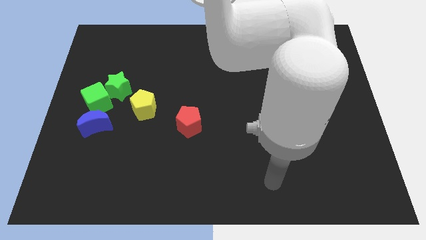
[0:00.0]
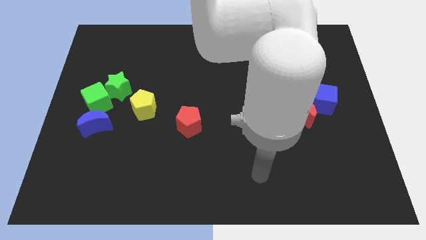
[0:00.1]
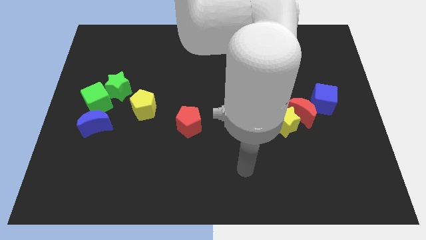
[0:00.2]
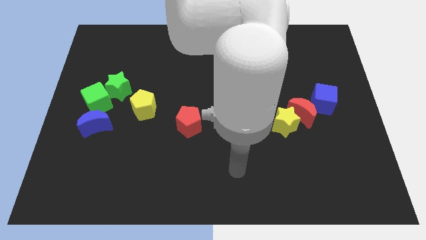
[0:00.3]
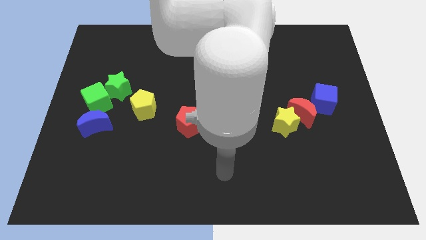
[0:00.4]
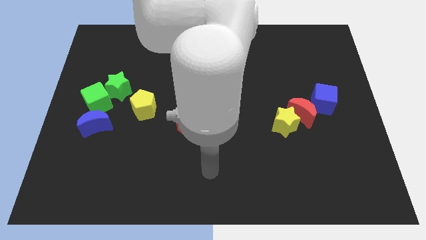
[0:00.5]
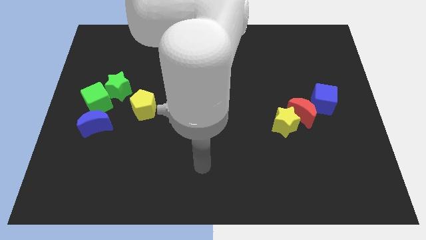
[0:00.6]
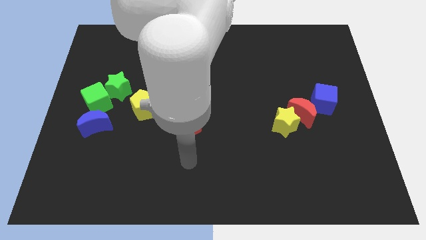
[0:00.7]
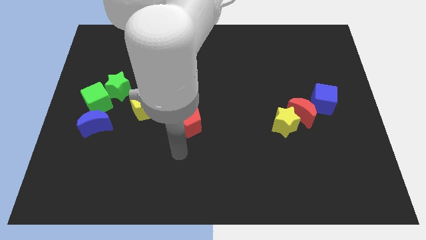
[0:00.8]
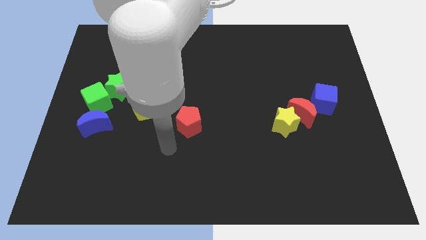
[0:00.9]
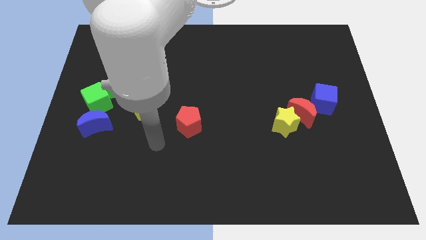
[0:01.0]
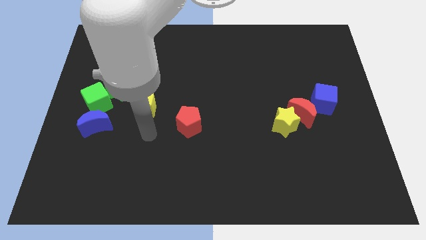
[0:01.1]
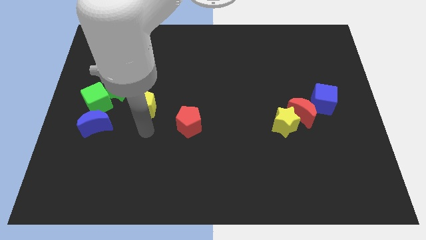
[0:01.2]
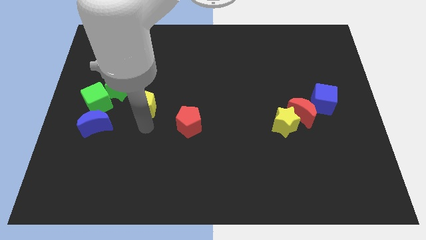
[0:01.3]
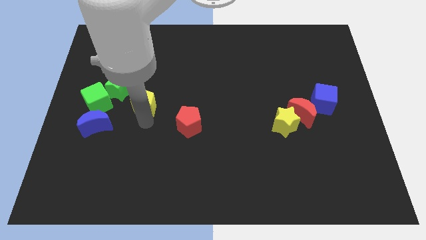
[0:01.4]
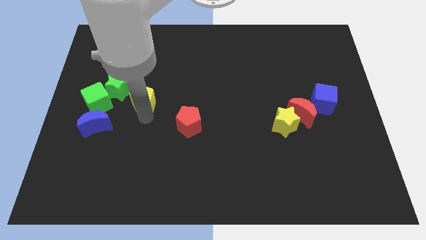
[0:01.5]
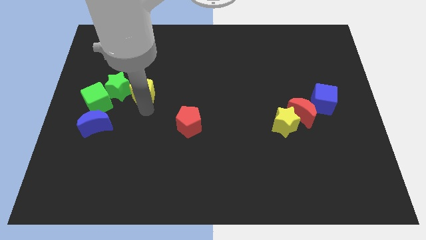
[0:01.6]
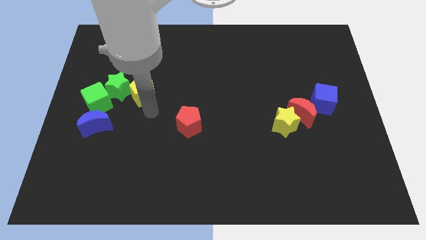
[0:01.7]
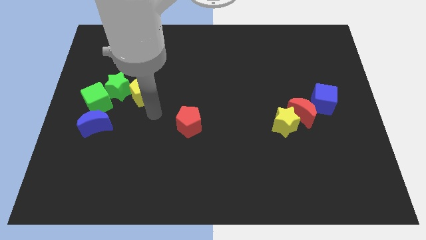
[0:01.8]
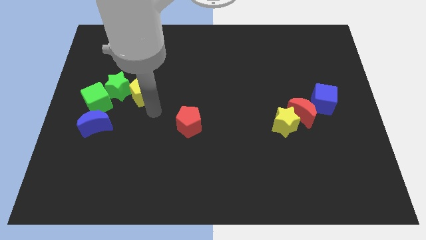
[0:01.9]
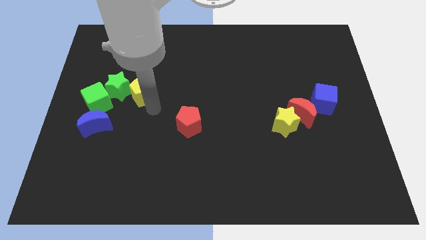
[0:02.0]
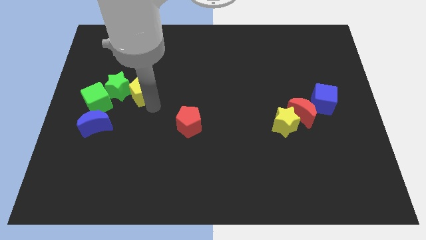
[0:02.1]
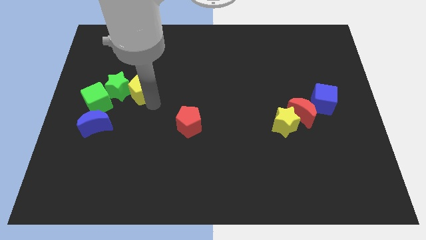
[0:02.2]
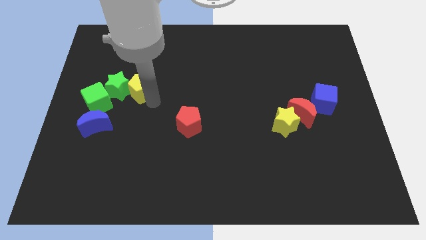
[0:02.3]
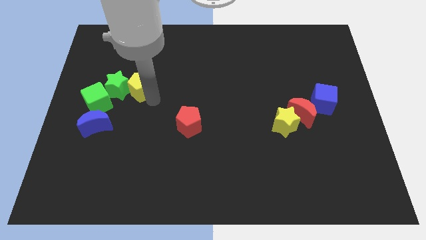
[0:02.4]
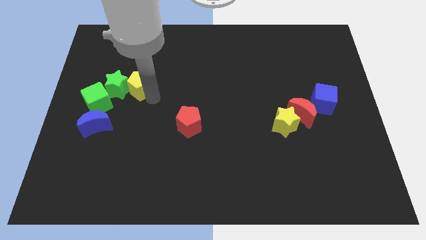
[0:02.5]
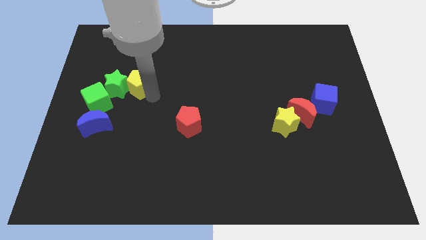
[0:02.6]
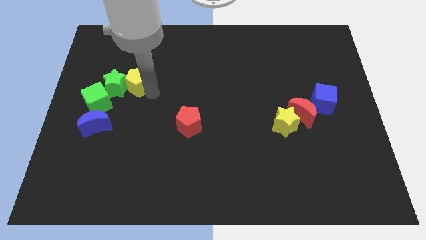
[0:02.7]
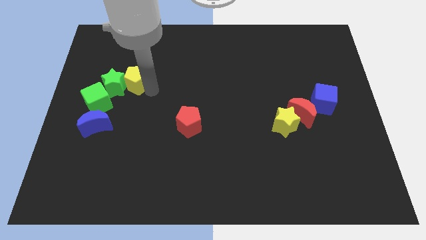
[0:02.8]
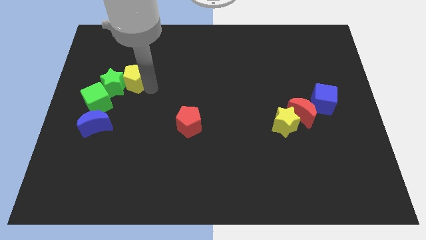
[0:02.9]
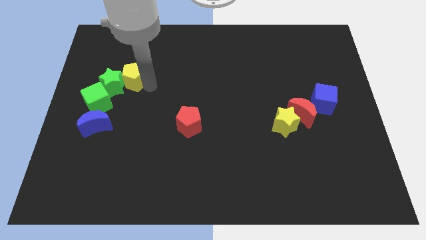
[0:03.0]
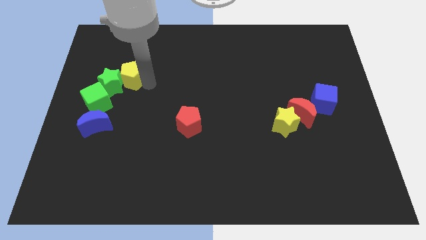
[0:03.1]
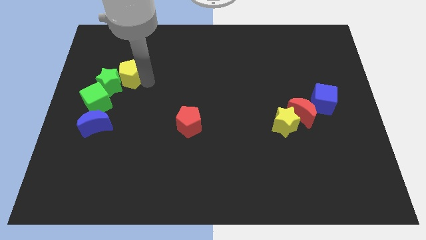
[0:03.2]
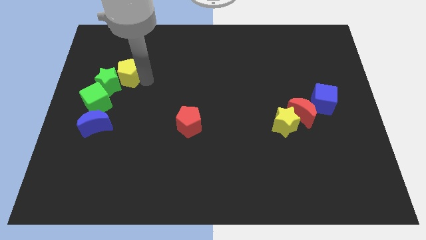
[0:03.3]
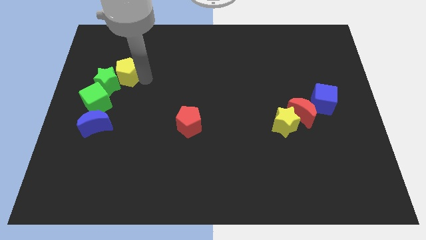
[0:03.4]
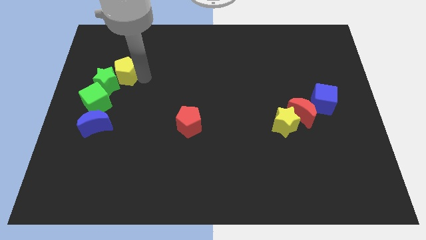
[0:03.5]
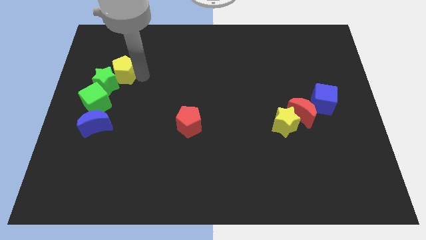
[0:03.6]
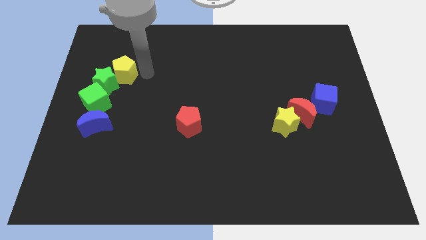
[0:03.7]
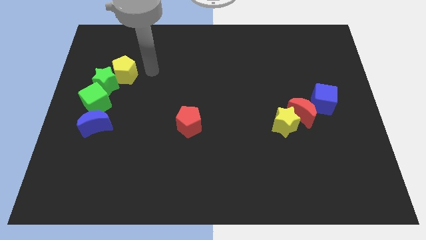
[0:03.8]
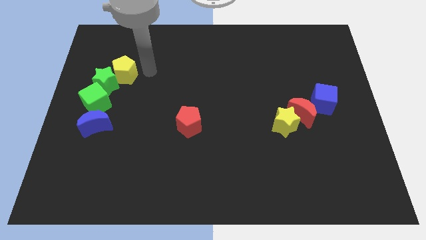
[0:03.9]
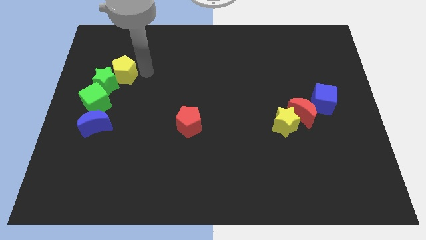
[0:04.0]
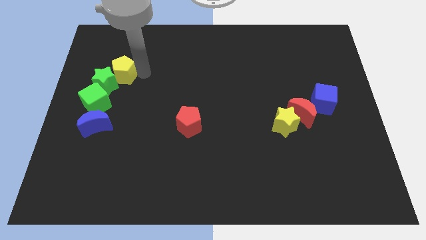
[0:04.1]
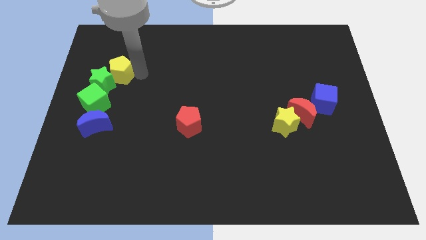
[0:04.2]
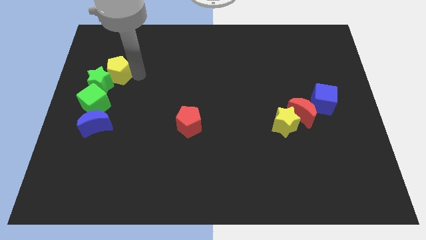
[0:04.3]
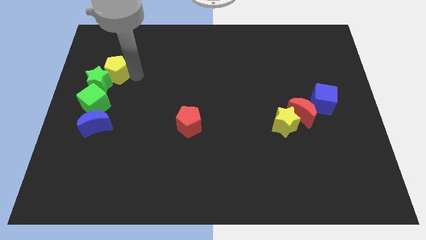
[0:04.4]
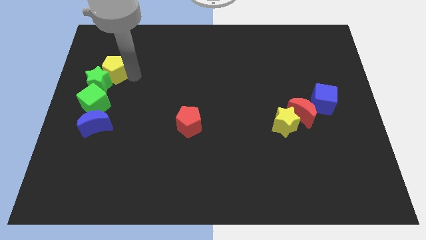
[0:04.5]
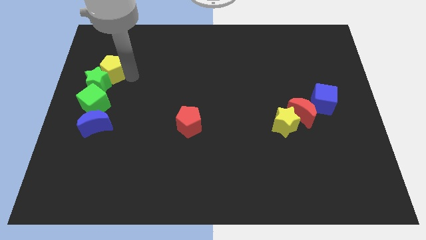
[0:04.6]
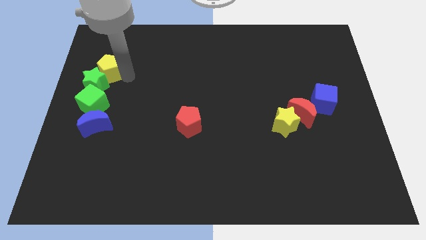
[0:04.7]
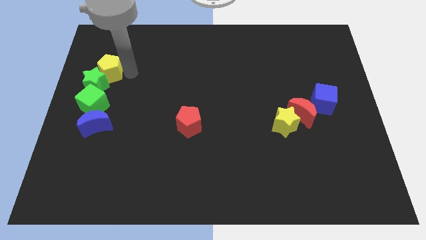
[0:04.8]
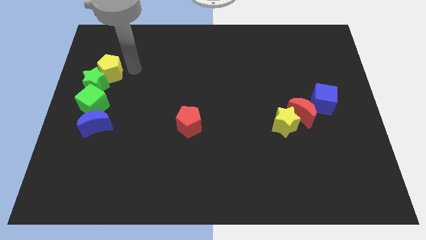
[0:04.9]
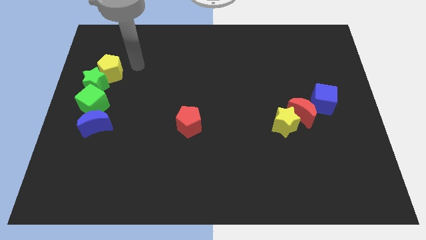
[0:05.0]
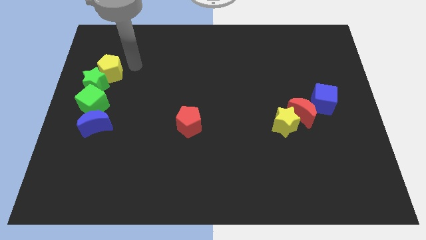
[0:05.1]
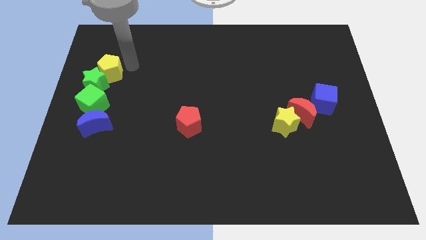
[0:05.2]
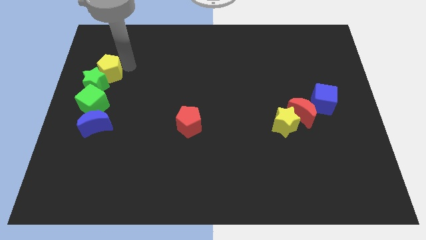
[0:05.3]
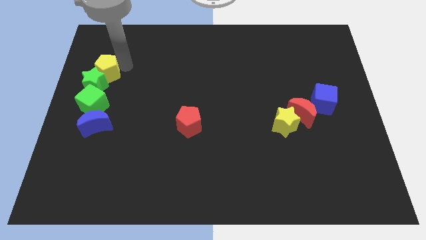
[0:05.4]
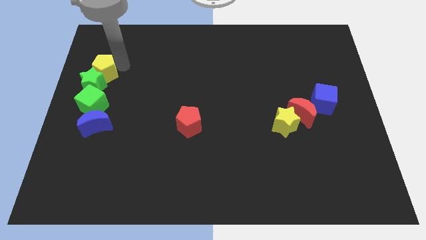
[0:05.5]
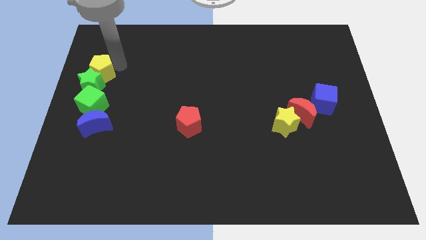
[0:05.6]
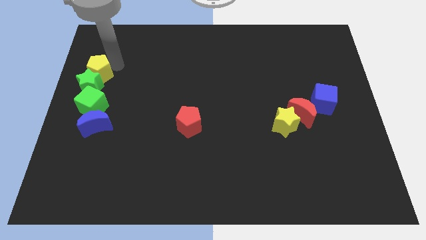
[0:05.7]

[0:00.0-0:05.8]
move the yellow pentagon to the left side
